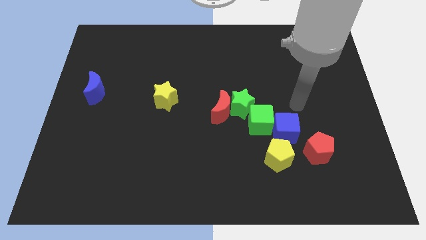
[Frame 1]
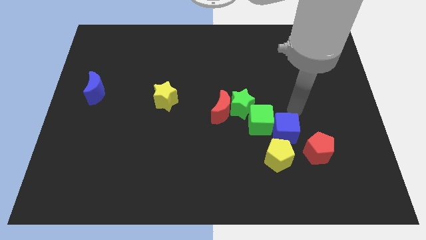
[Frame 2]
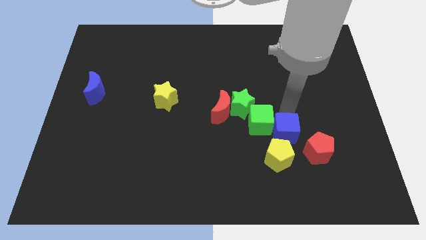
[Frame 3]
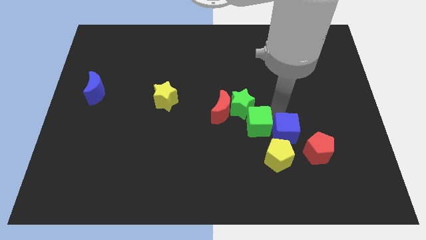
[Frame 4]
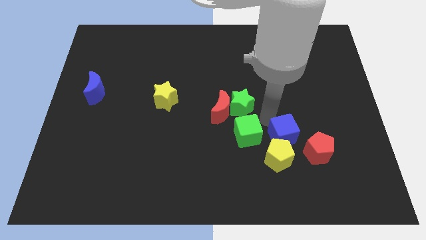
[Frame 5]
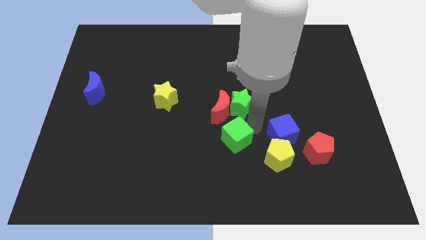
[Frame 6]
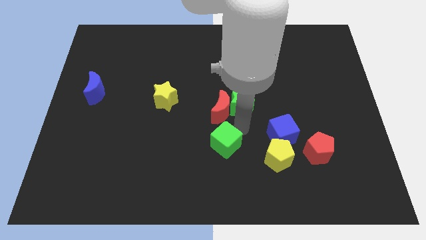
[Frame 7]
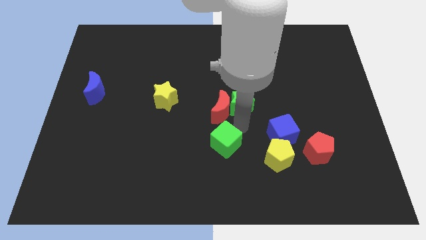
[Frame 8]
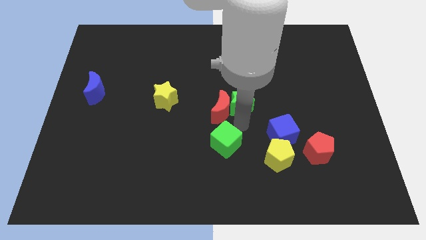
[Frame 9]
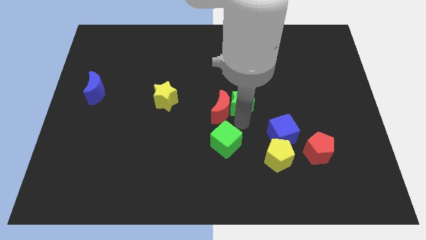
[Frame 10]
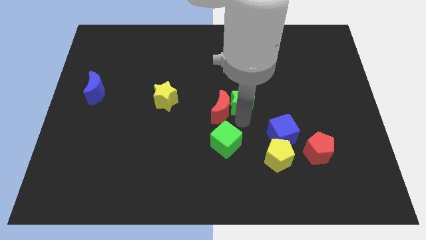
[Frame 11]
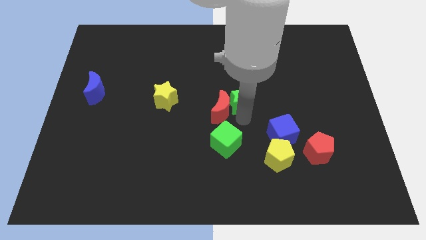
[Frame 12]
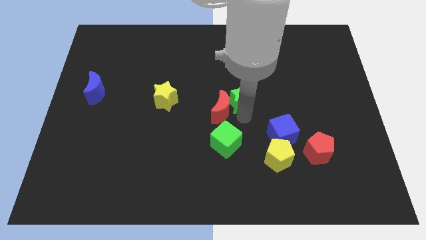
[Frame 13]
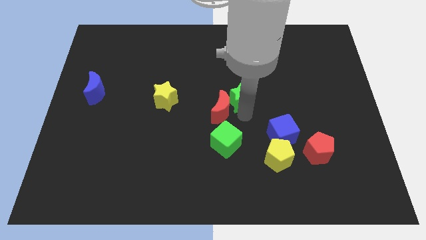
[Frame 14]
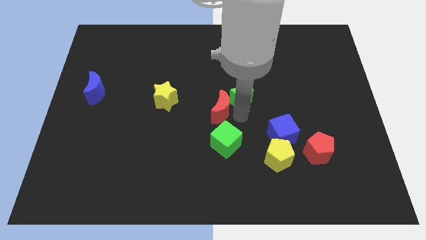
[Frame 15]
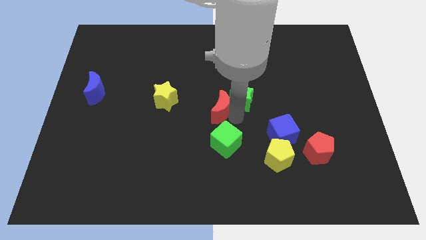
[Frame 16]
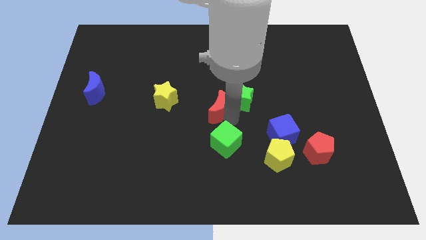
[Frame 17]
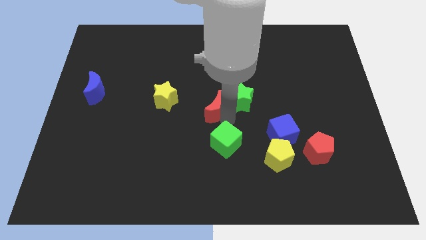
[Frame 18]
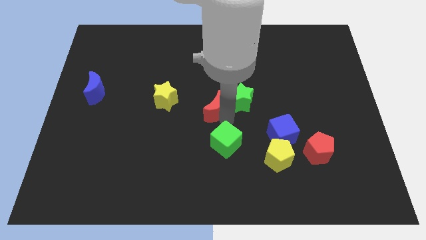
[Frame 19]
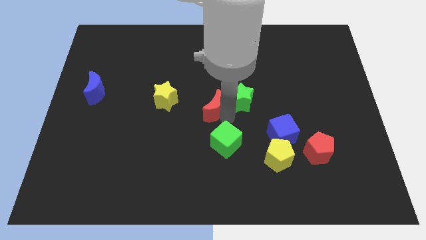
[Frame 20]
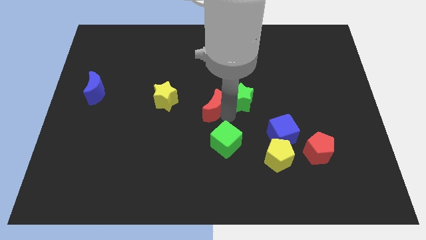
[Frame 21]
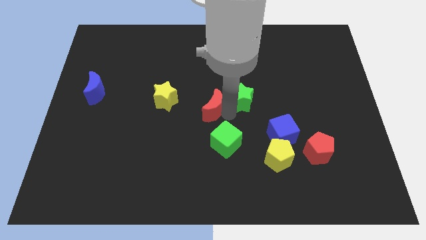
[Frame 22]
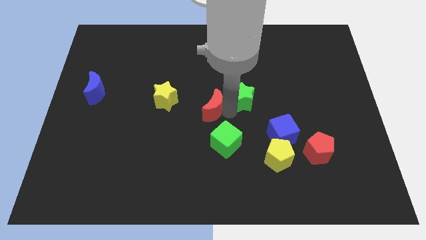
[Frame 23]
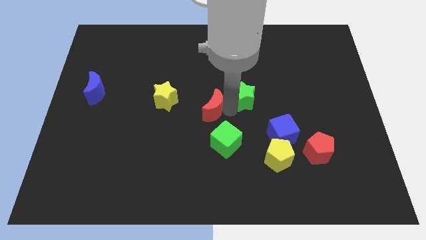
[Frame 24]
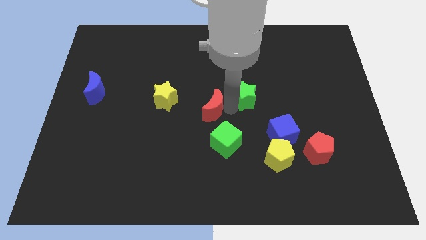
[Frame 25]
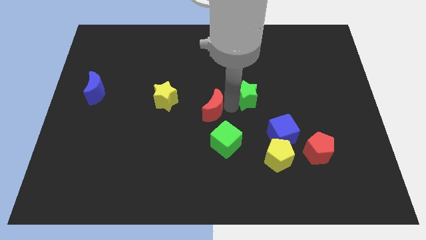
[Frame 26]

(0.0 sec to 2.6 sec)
pull the green star apart from the red moon and green cube

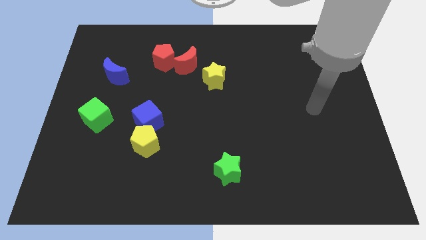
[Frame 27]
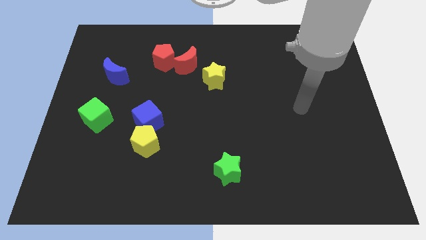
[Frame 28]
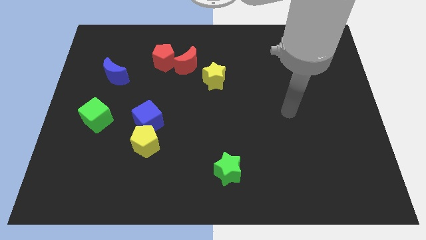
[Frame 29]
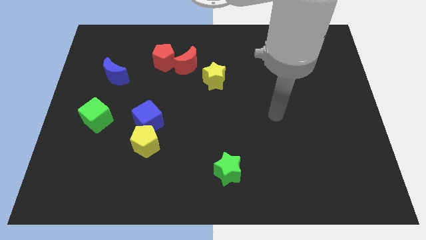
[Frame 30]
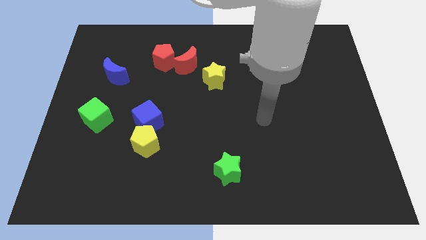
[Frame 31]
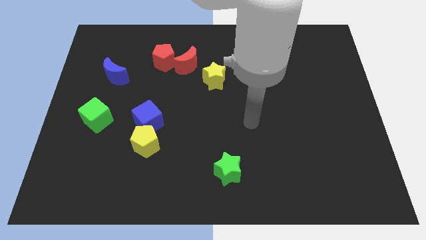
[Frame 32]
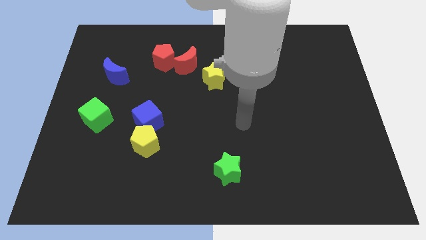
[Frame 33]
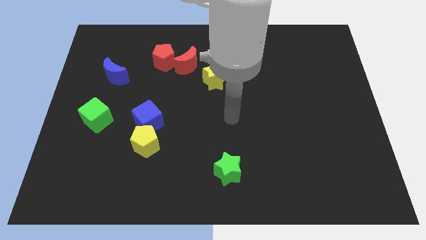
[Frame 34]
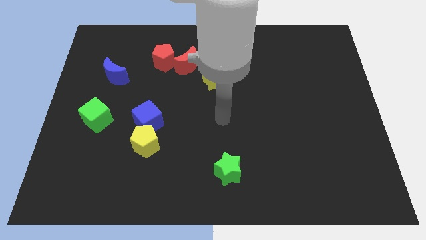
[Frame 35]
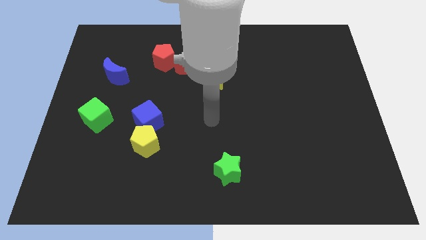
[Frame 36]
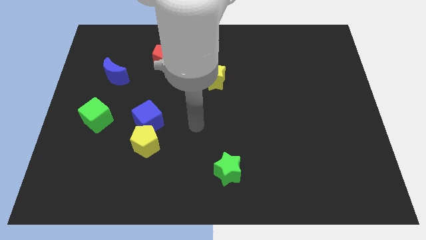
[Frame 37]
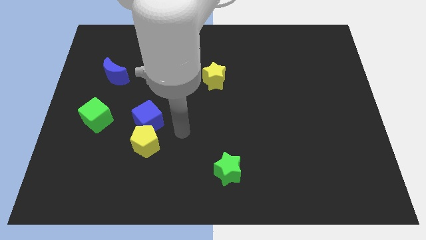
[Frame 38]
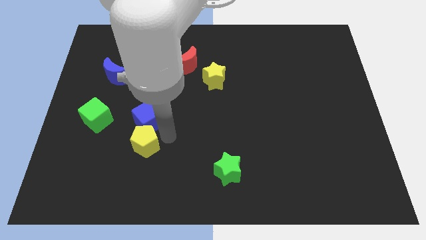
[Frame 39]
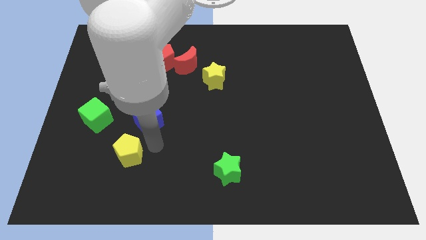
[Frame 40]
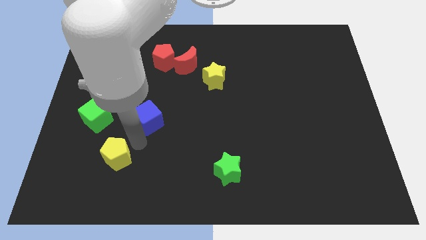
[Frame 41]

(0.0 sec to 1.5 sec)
pull the blue cube apart from the yellow pentagon

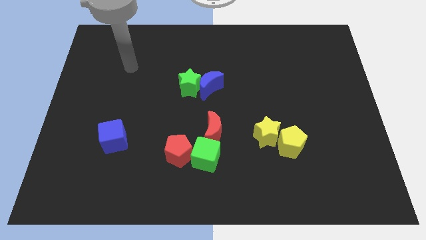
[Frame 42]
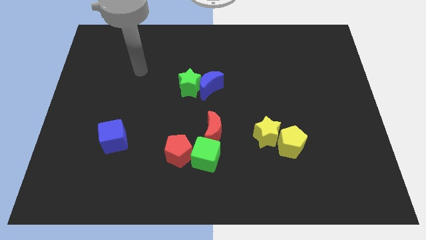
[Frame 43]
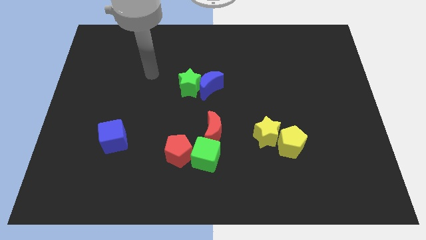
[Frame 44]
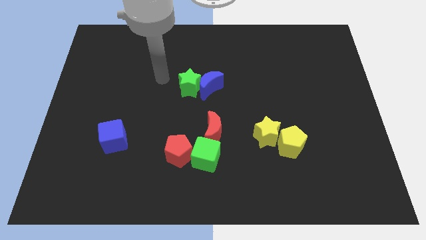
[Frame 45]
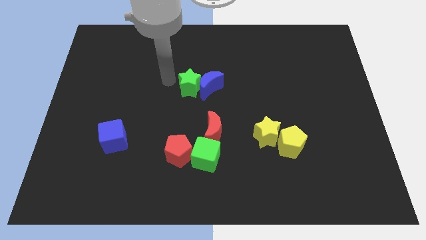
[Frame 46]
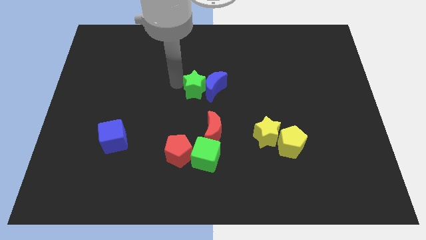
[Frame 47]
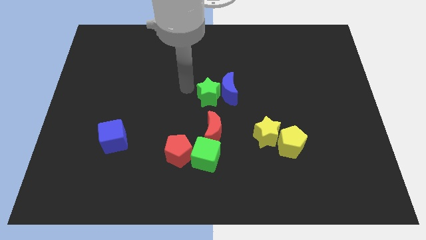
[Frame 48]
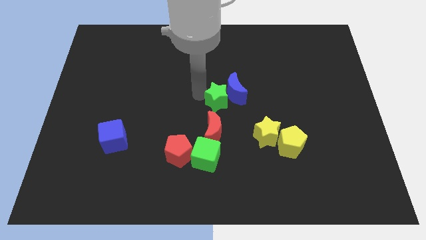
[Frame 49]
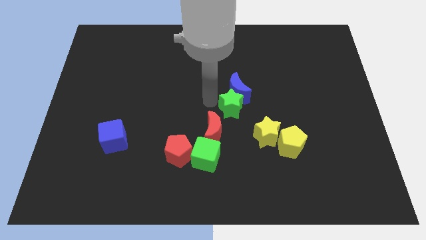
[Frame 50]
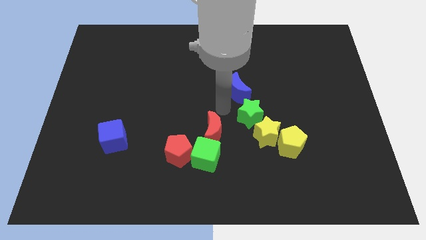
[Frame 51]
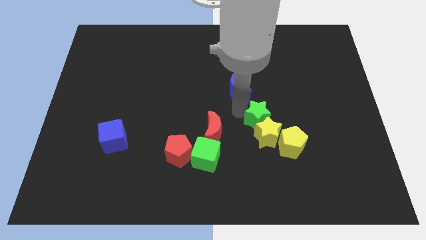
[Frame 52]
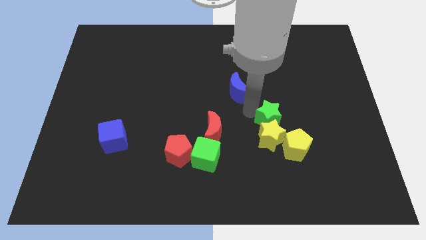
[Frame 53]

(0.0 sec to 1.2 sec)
separate the blue moon from the green star

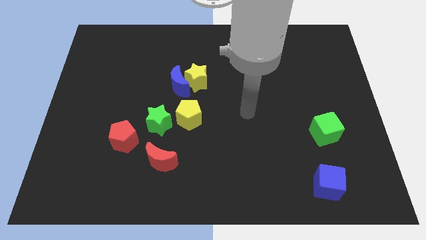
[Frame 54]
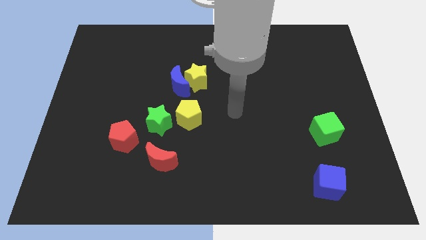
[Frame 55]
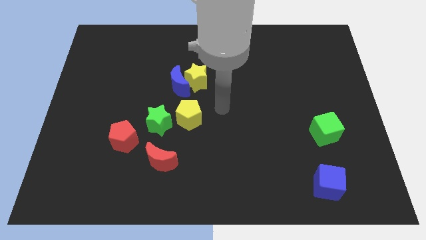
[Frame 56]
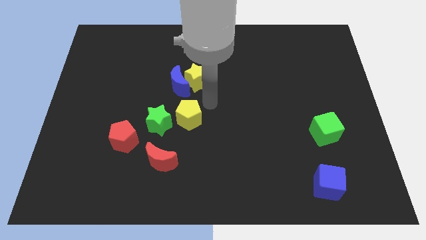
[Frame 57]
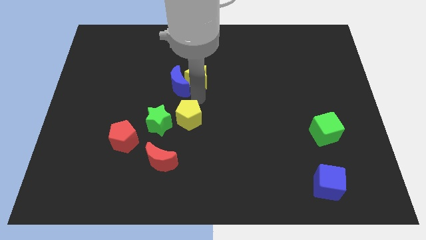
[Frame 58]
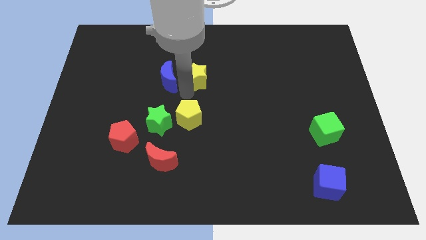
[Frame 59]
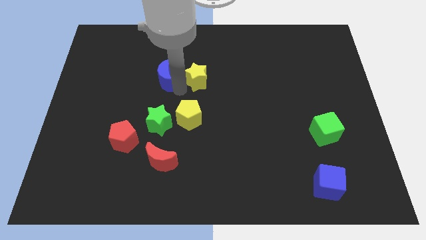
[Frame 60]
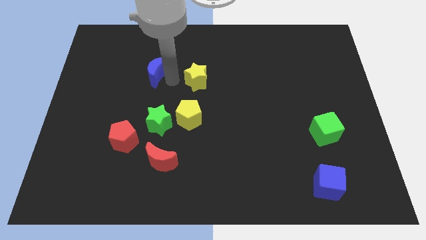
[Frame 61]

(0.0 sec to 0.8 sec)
move the yellow star away from the blue moon

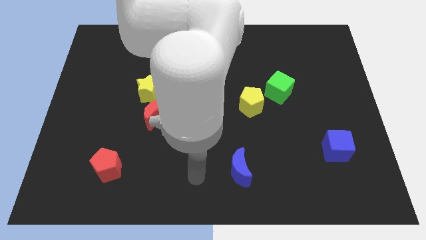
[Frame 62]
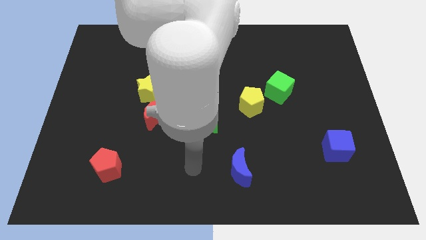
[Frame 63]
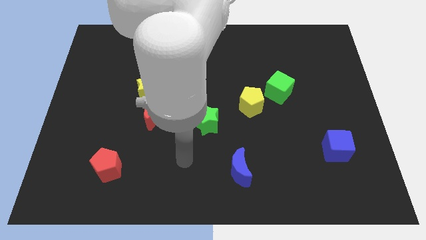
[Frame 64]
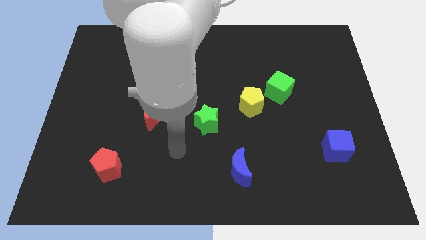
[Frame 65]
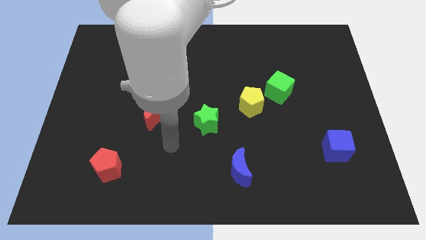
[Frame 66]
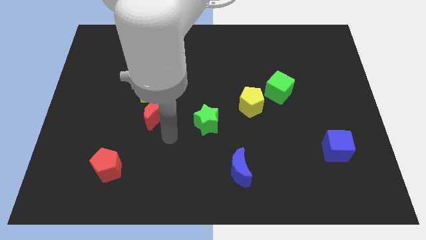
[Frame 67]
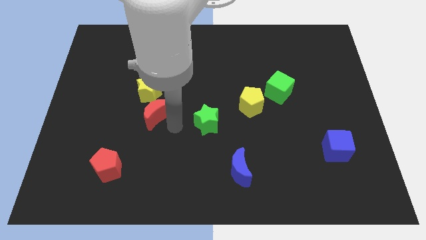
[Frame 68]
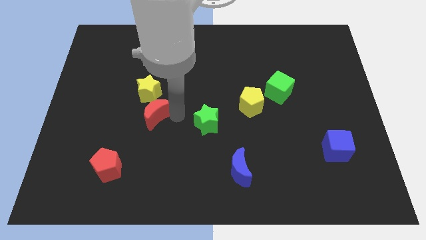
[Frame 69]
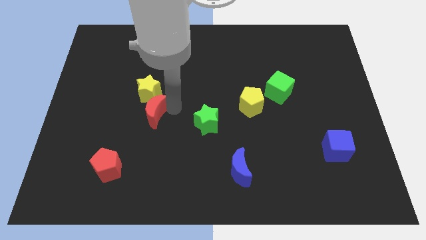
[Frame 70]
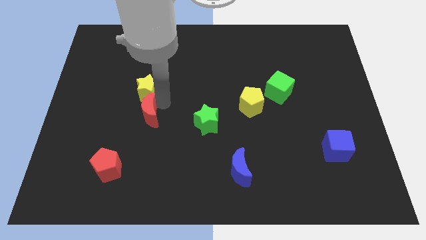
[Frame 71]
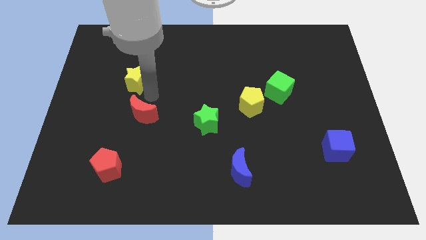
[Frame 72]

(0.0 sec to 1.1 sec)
move the red moon away from the yellow star

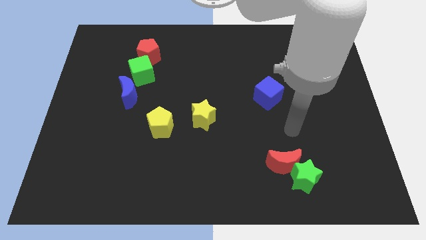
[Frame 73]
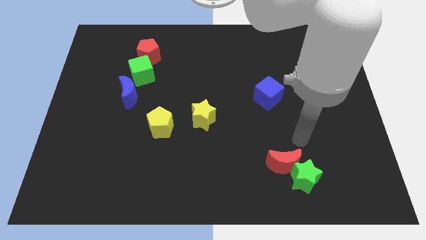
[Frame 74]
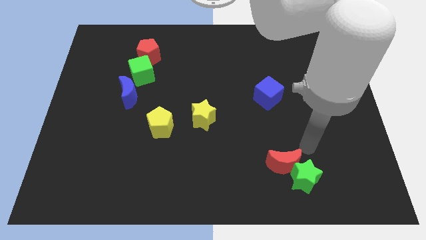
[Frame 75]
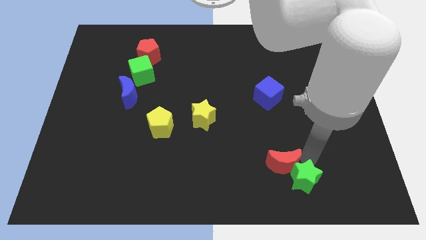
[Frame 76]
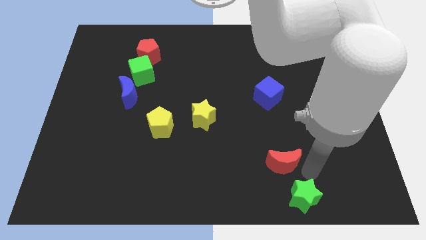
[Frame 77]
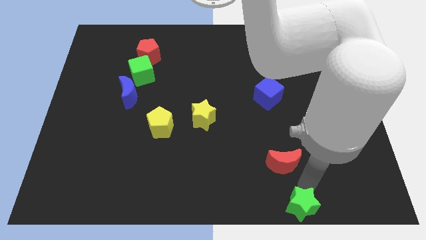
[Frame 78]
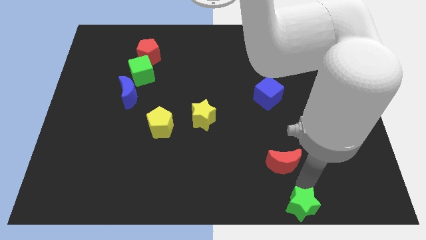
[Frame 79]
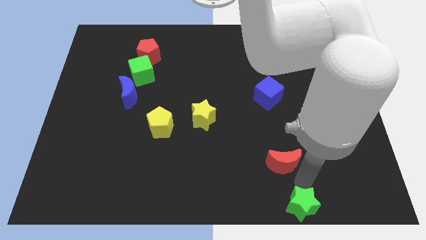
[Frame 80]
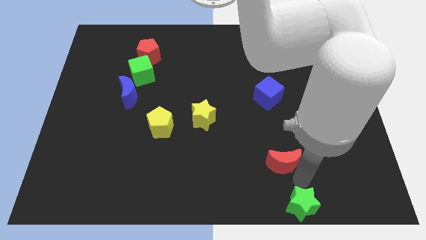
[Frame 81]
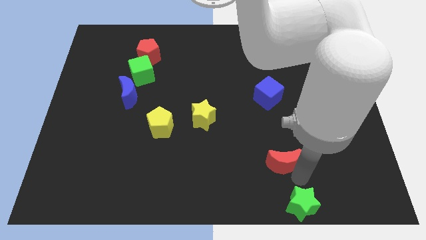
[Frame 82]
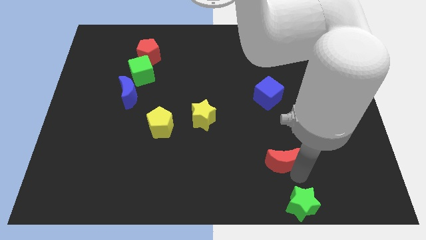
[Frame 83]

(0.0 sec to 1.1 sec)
pull the red moon apart from the green star

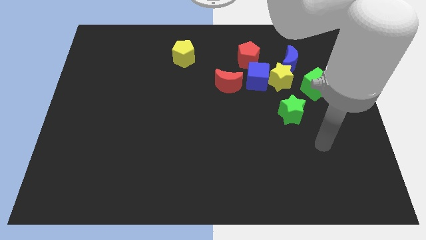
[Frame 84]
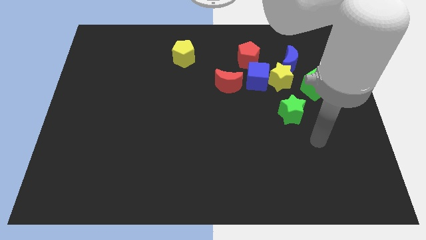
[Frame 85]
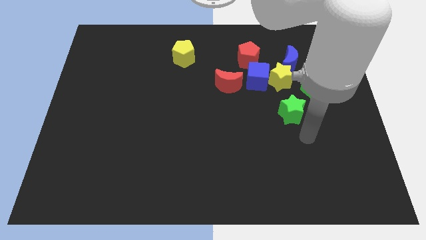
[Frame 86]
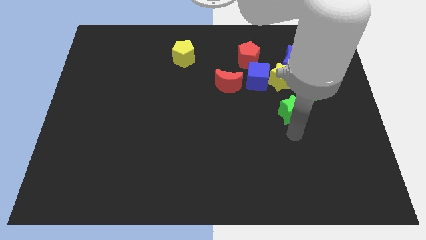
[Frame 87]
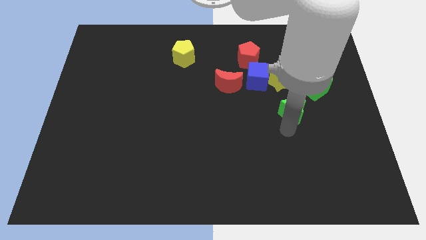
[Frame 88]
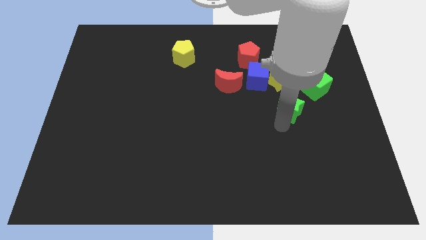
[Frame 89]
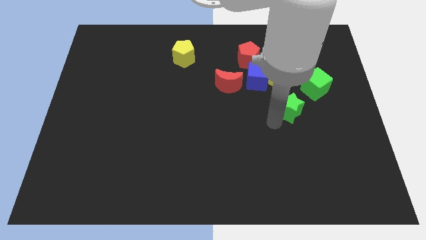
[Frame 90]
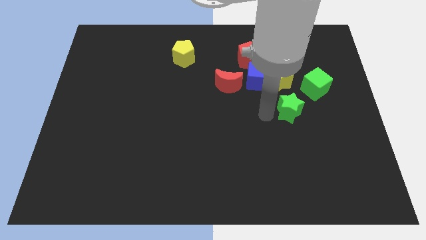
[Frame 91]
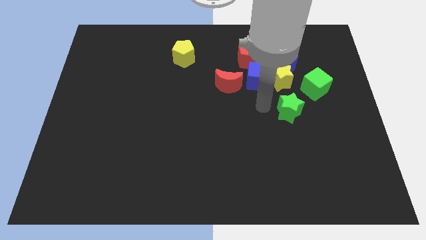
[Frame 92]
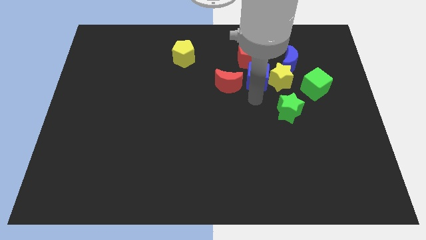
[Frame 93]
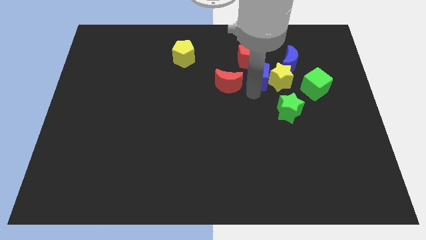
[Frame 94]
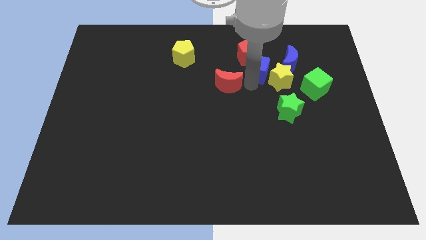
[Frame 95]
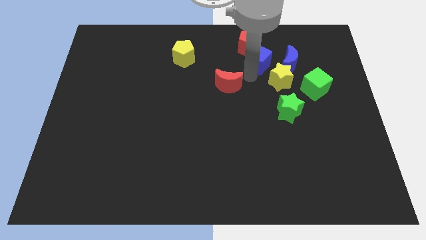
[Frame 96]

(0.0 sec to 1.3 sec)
move the red moon away from the blue cube
